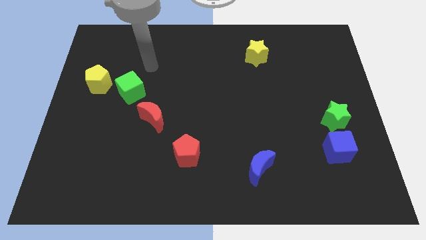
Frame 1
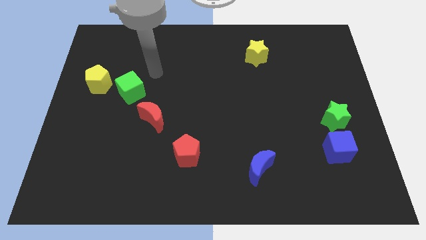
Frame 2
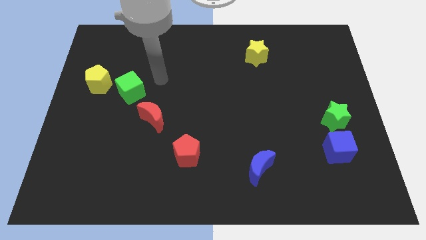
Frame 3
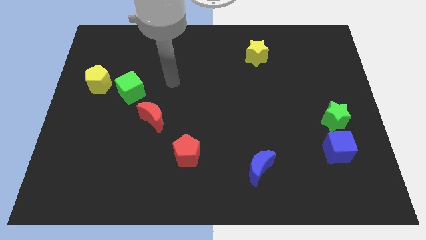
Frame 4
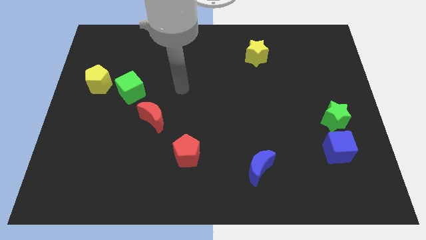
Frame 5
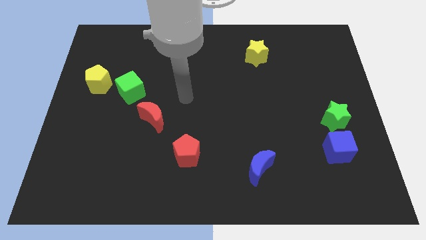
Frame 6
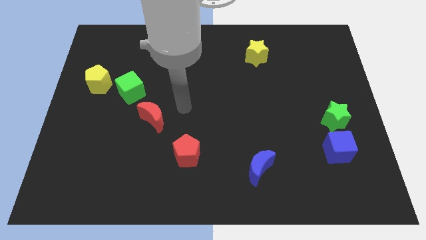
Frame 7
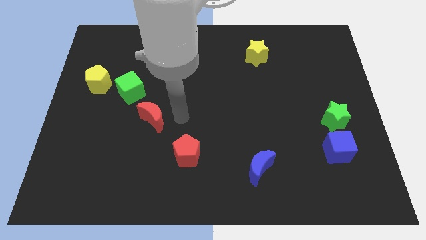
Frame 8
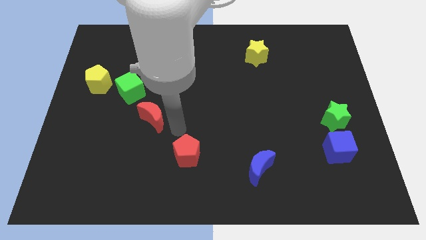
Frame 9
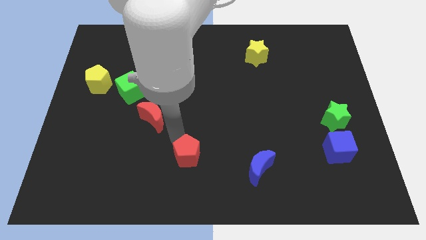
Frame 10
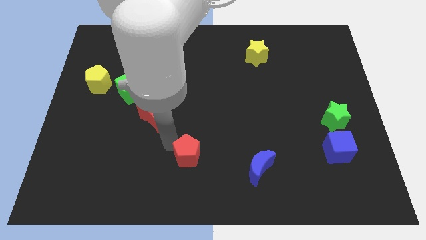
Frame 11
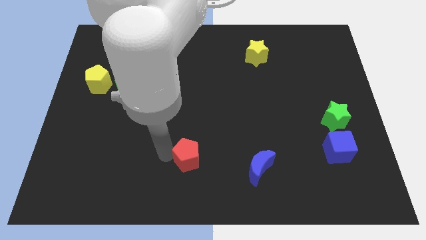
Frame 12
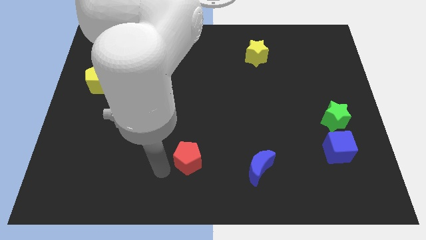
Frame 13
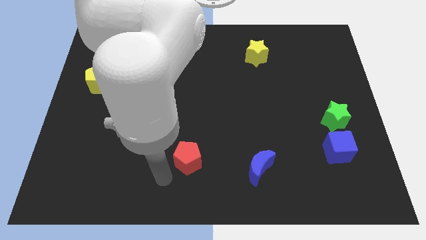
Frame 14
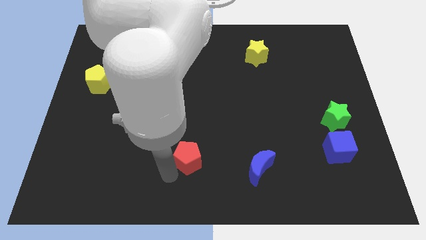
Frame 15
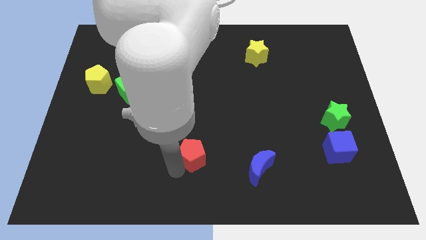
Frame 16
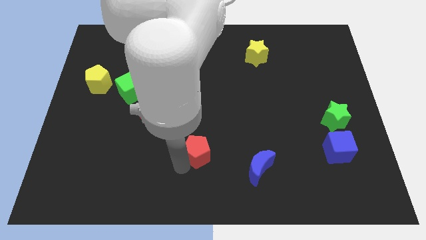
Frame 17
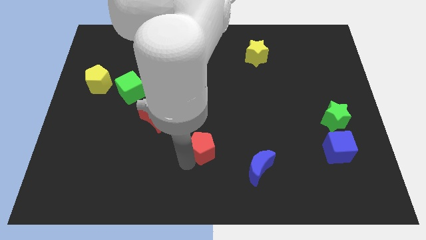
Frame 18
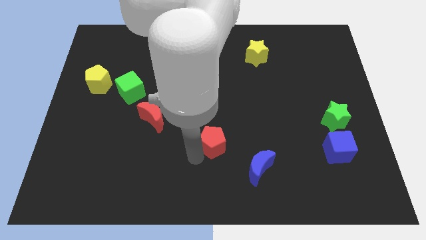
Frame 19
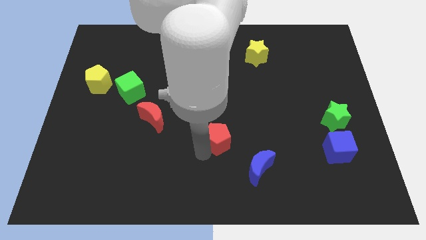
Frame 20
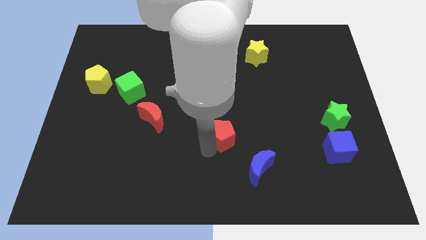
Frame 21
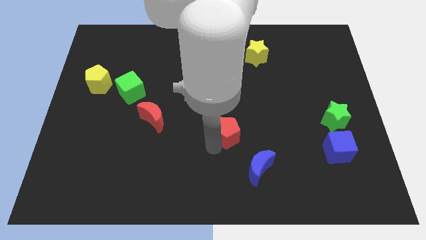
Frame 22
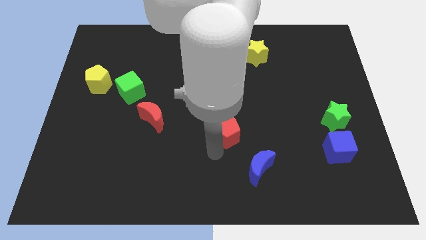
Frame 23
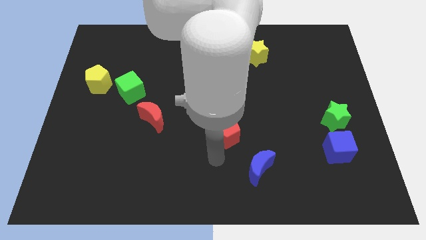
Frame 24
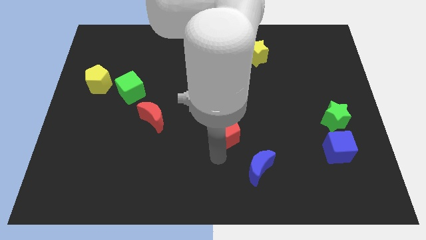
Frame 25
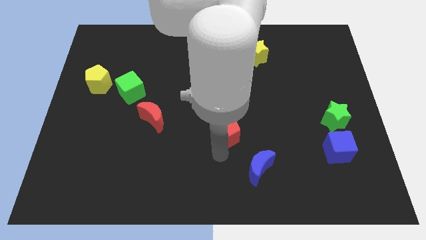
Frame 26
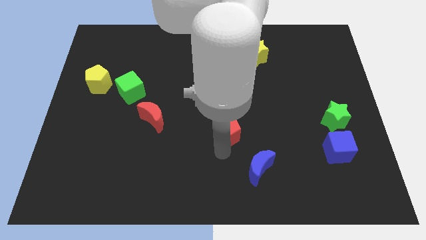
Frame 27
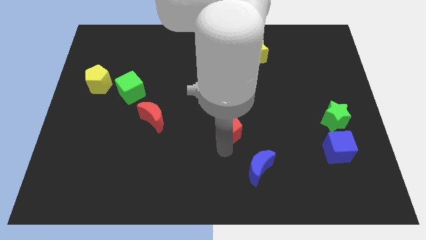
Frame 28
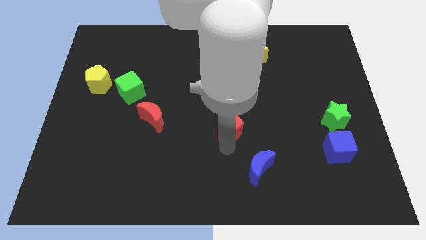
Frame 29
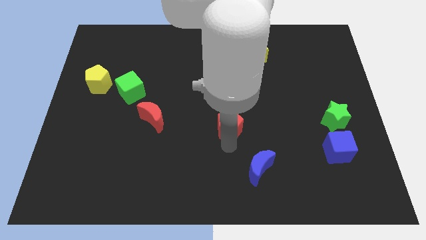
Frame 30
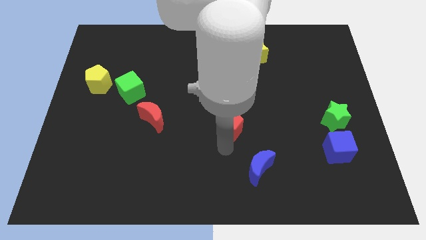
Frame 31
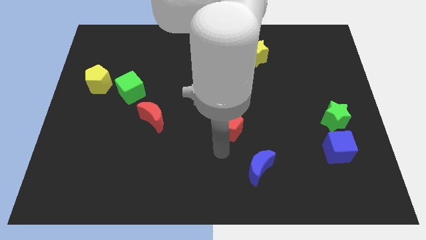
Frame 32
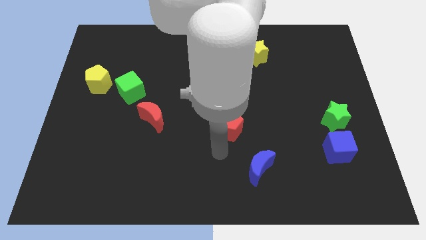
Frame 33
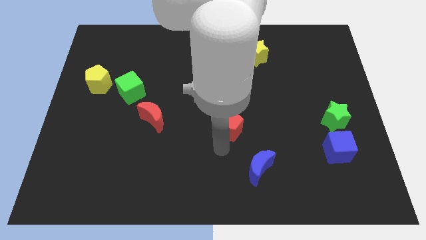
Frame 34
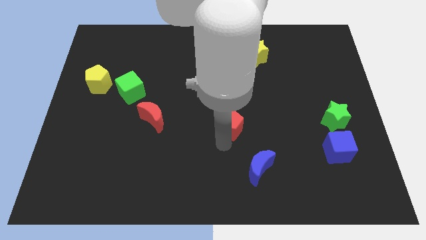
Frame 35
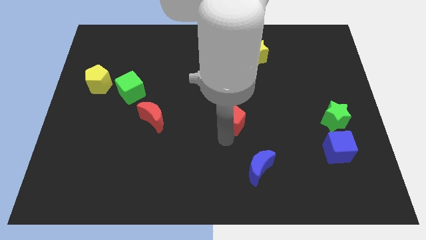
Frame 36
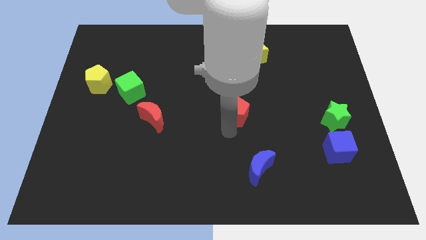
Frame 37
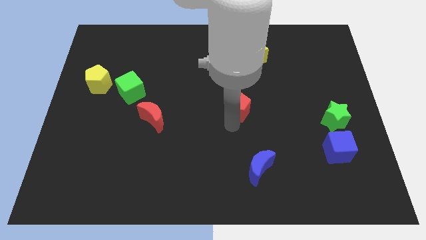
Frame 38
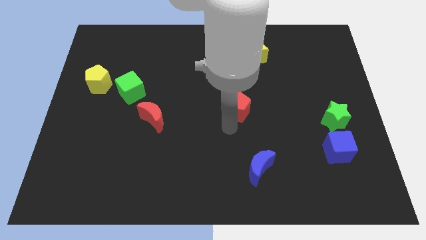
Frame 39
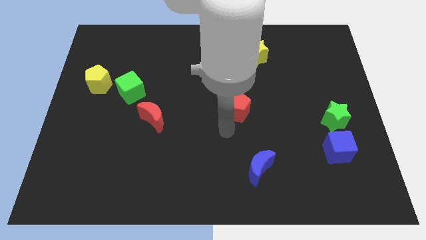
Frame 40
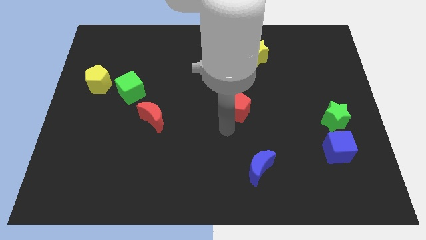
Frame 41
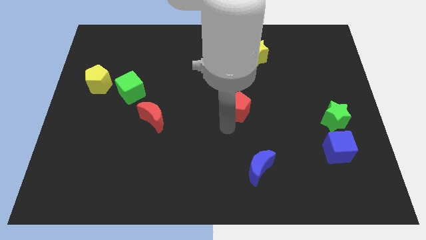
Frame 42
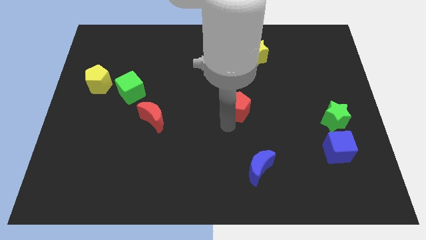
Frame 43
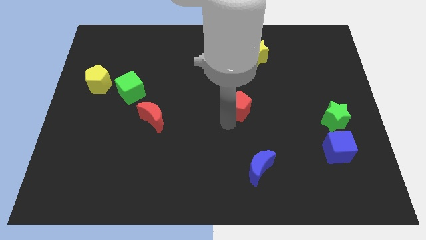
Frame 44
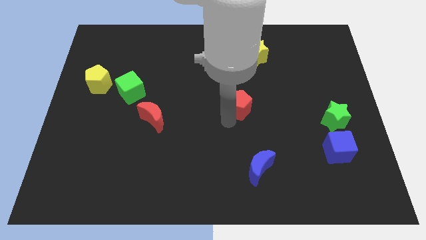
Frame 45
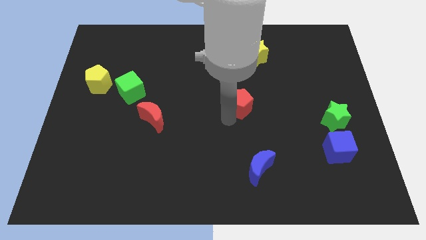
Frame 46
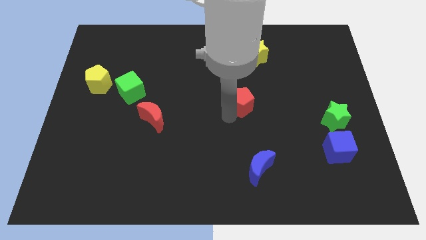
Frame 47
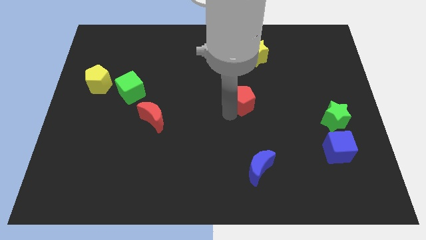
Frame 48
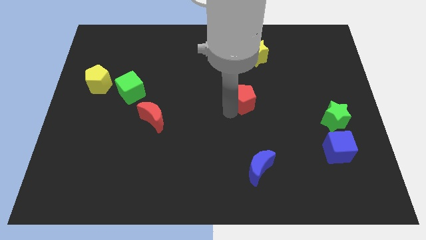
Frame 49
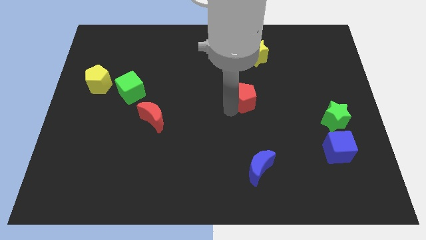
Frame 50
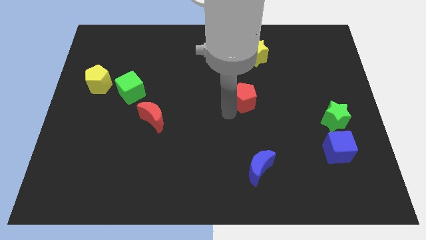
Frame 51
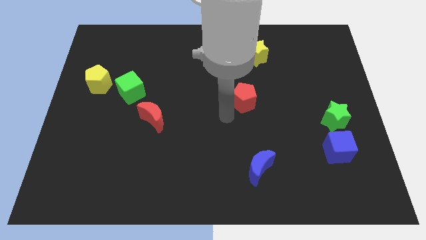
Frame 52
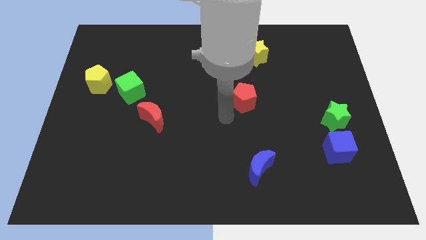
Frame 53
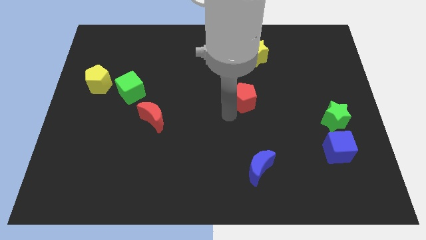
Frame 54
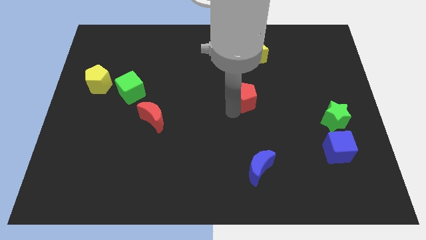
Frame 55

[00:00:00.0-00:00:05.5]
move the red pentagon upwards and to the right diagonally

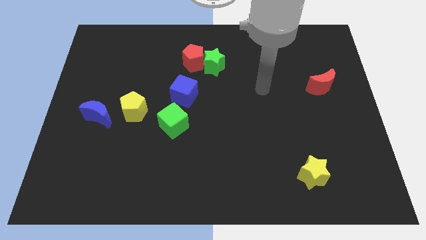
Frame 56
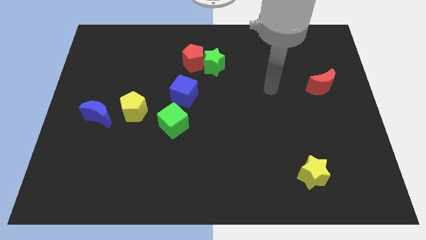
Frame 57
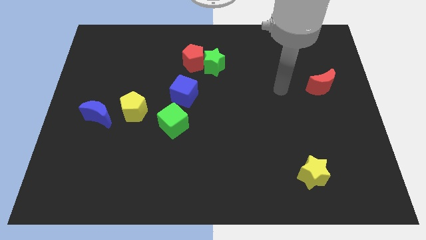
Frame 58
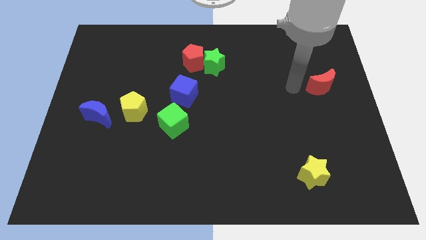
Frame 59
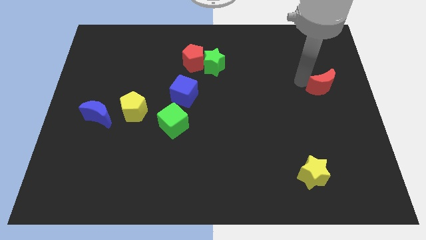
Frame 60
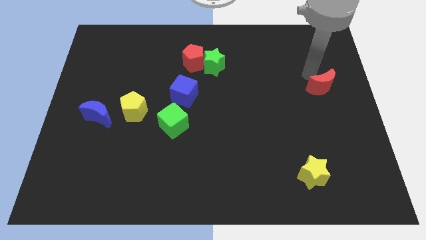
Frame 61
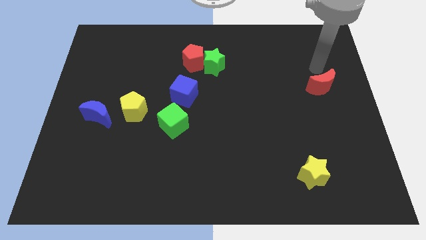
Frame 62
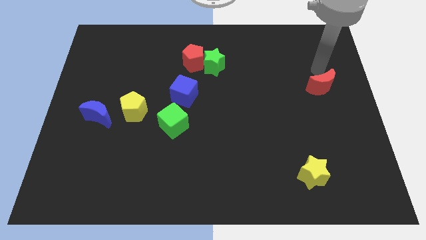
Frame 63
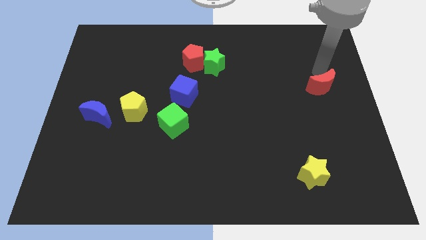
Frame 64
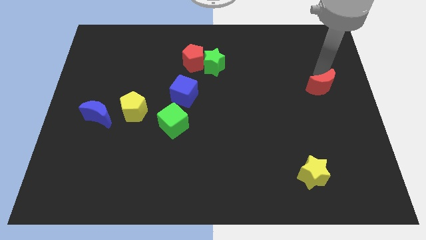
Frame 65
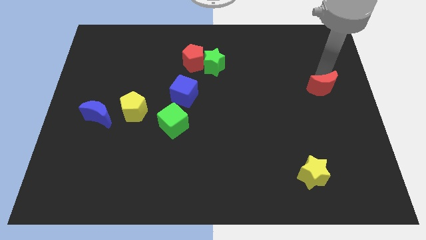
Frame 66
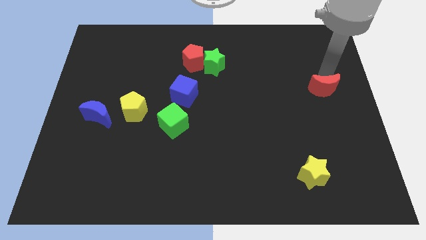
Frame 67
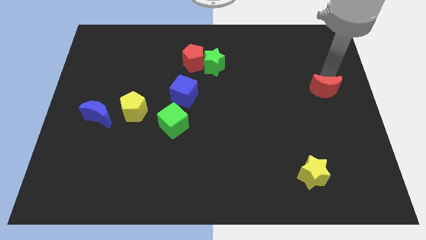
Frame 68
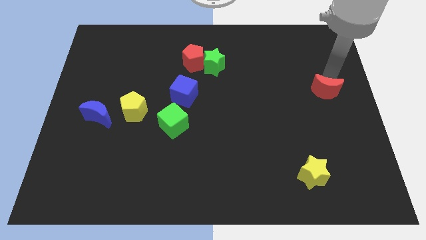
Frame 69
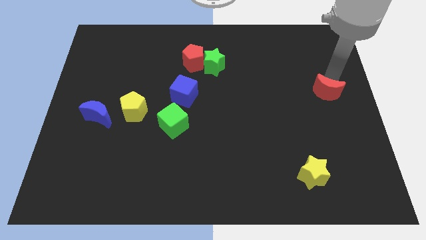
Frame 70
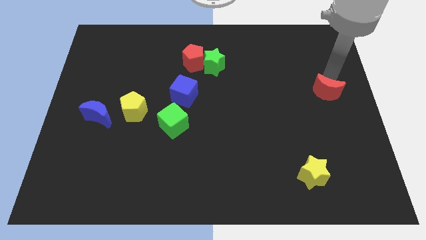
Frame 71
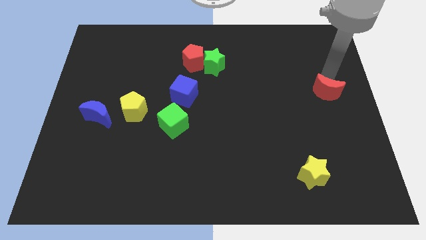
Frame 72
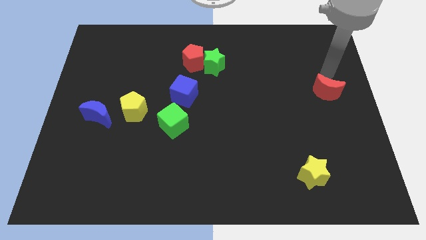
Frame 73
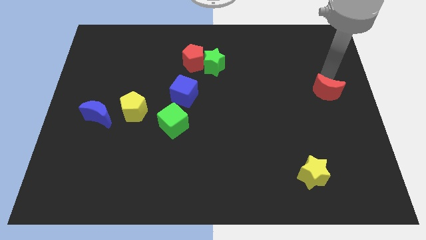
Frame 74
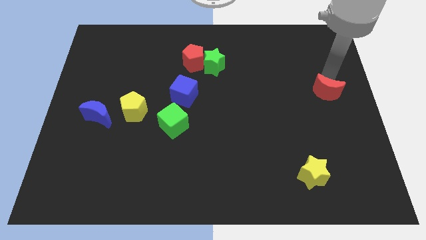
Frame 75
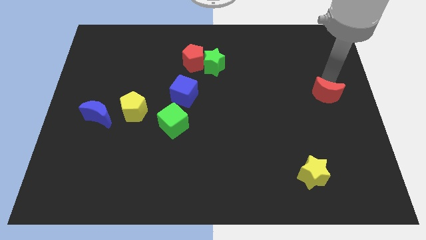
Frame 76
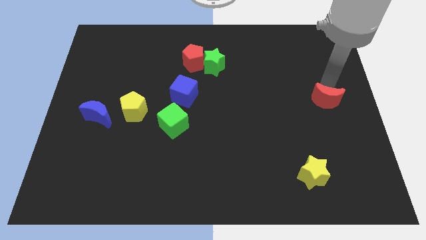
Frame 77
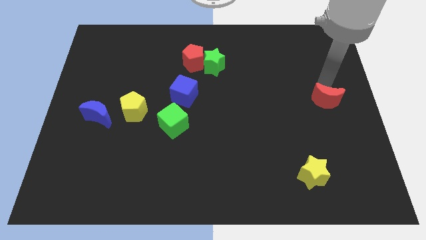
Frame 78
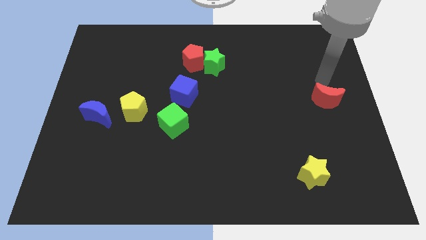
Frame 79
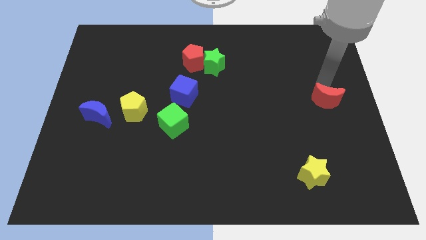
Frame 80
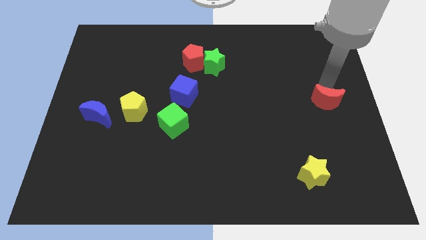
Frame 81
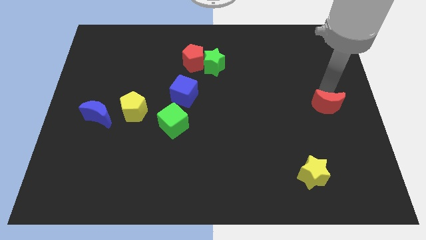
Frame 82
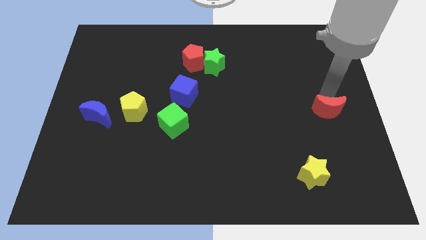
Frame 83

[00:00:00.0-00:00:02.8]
slide the red moon down a little bit
